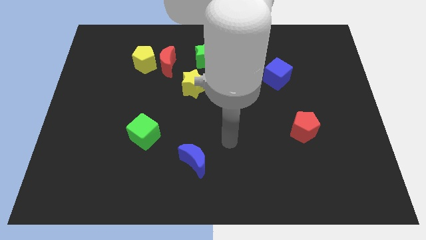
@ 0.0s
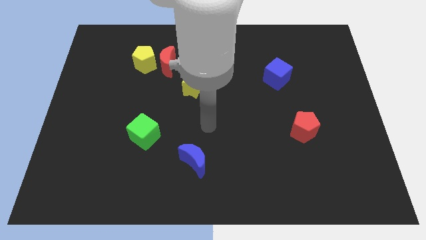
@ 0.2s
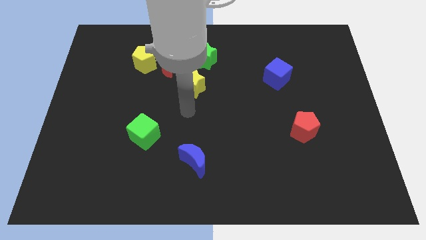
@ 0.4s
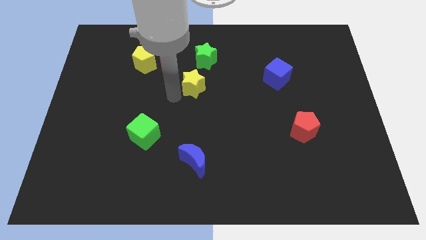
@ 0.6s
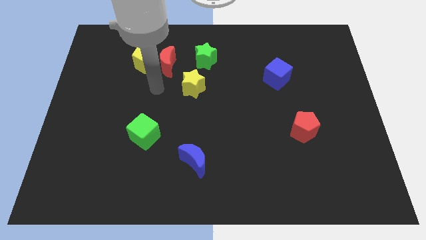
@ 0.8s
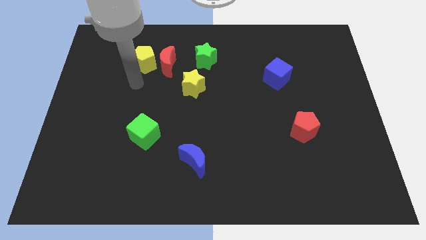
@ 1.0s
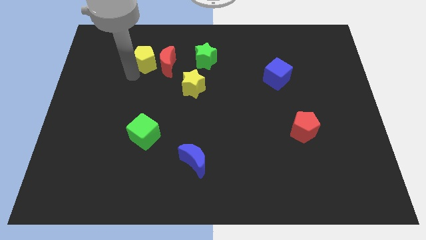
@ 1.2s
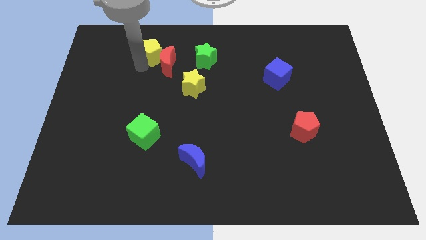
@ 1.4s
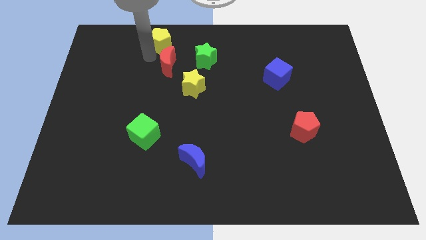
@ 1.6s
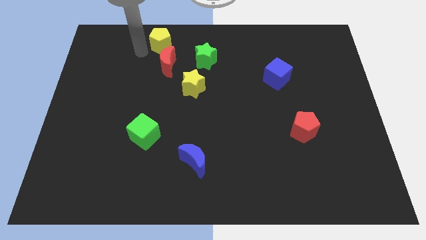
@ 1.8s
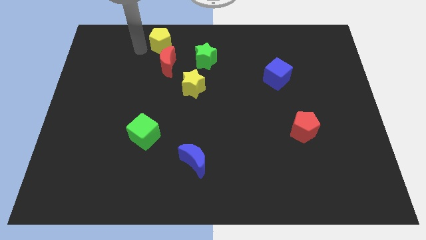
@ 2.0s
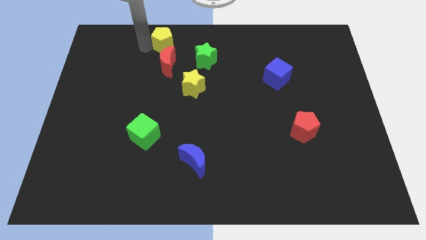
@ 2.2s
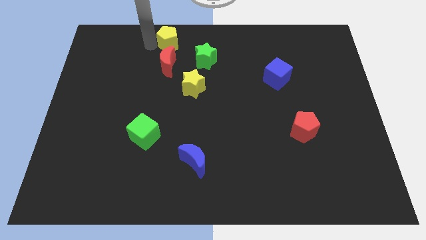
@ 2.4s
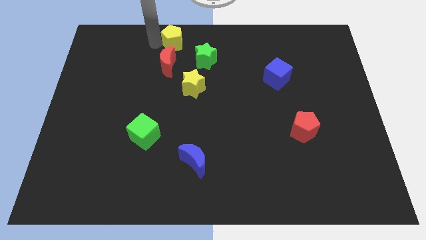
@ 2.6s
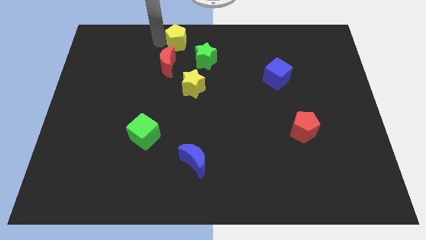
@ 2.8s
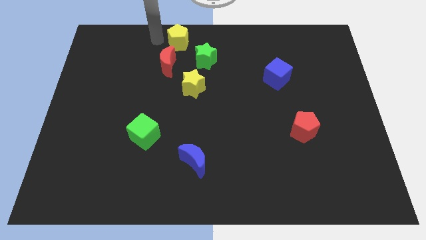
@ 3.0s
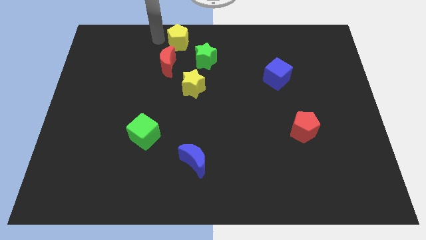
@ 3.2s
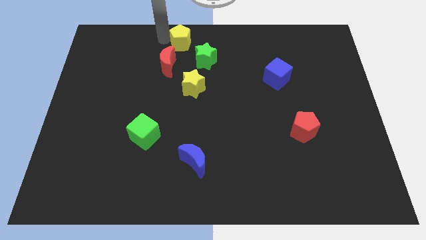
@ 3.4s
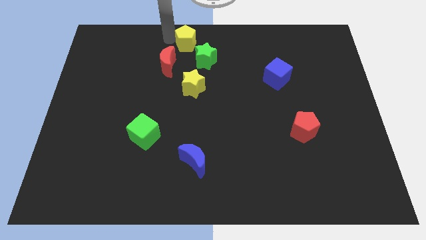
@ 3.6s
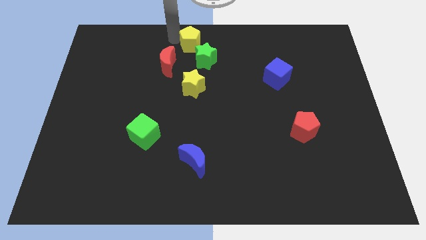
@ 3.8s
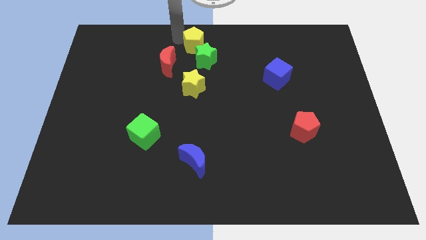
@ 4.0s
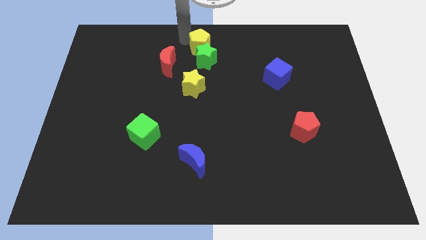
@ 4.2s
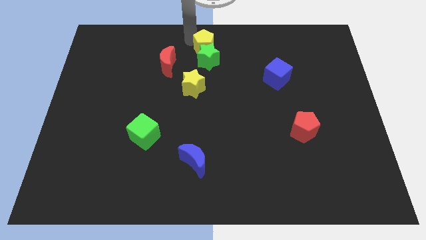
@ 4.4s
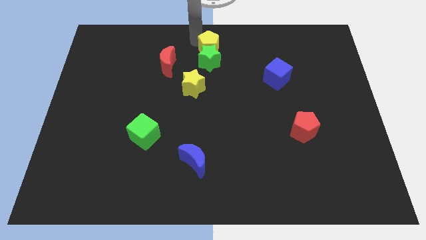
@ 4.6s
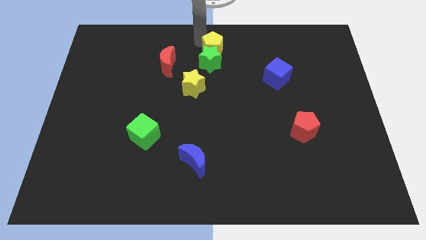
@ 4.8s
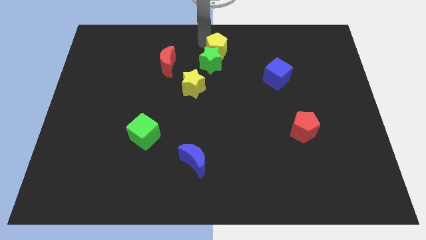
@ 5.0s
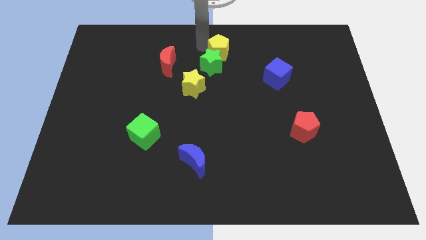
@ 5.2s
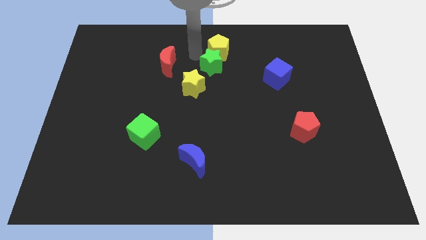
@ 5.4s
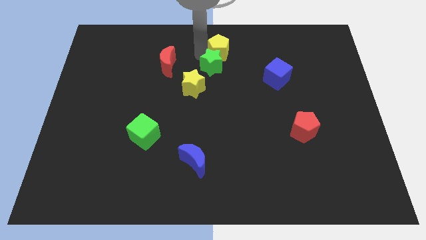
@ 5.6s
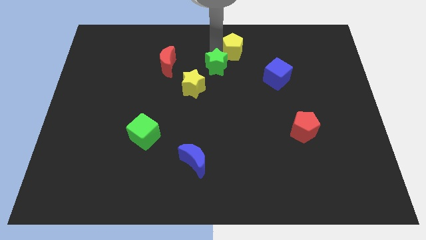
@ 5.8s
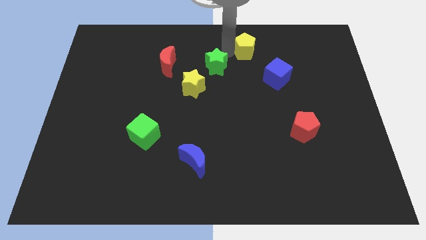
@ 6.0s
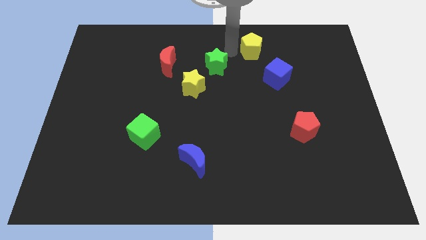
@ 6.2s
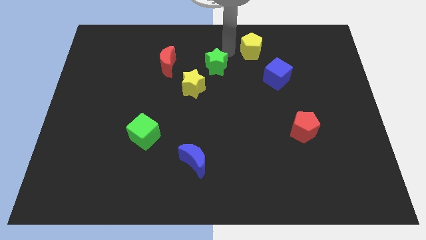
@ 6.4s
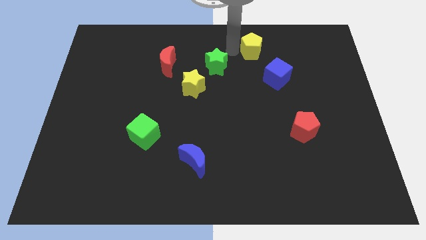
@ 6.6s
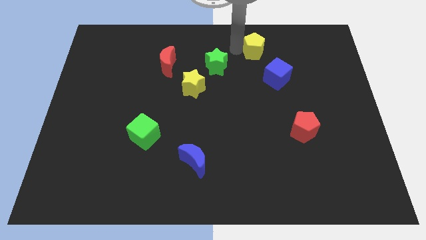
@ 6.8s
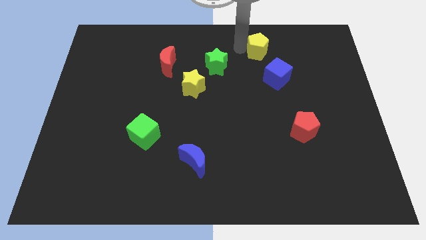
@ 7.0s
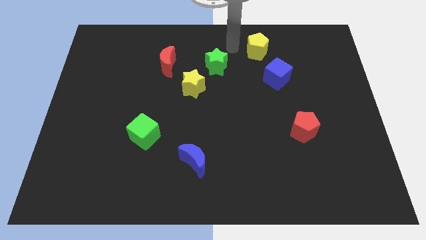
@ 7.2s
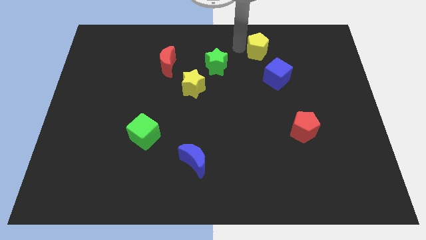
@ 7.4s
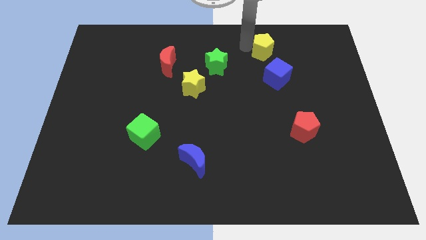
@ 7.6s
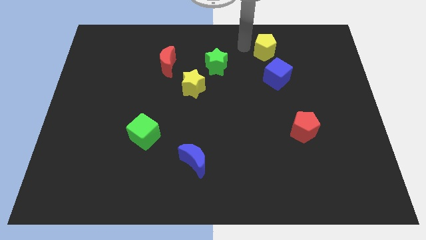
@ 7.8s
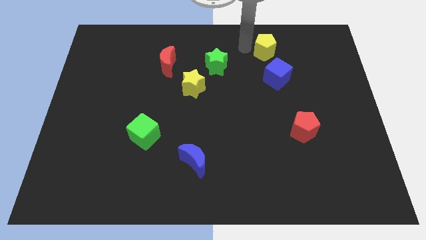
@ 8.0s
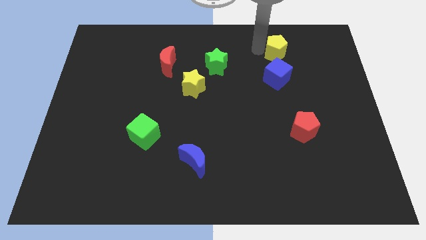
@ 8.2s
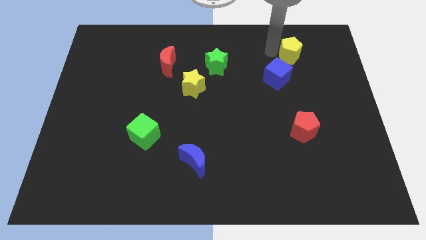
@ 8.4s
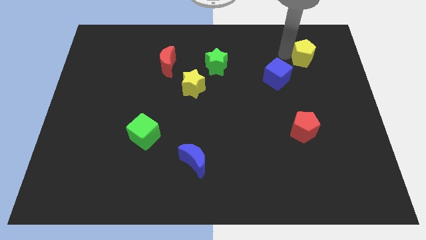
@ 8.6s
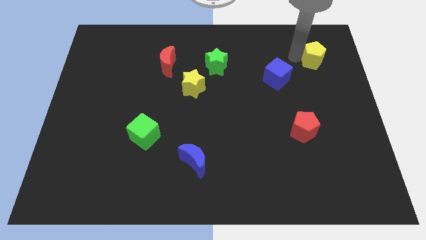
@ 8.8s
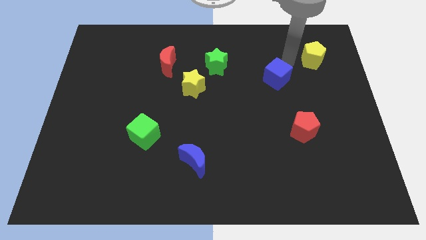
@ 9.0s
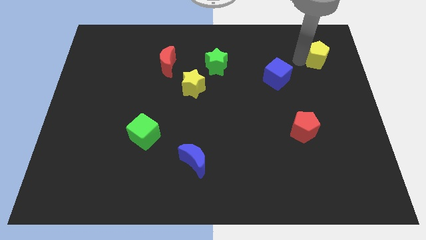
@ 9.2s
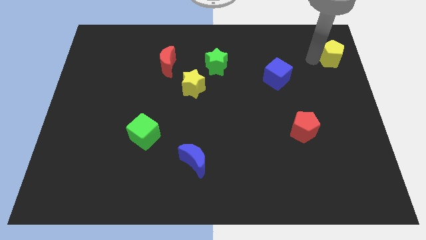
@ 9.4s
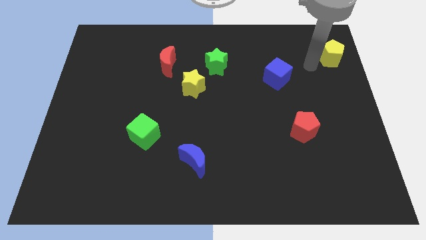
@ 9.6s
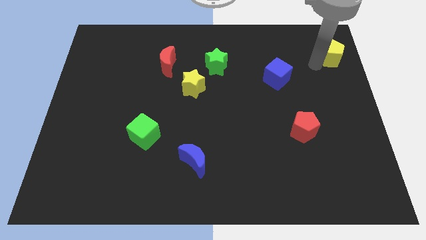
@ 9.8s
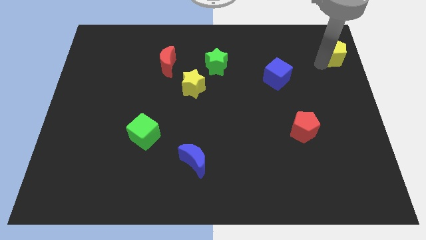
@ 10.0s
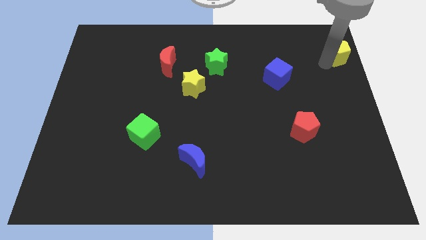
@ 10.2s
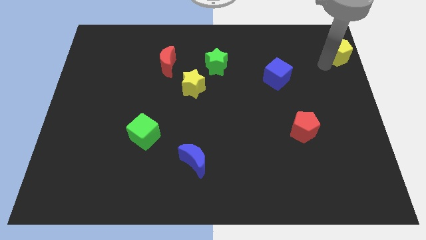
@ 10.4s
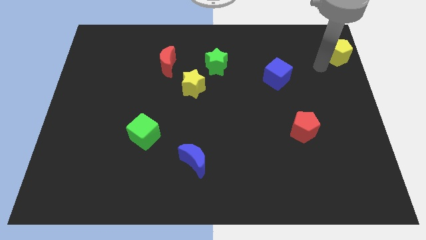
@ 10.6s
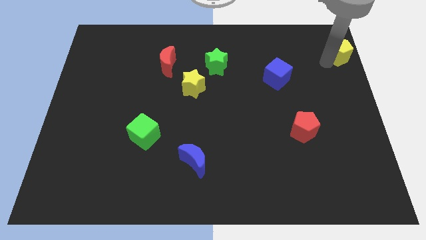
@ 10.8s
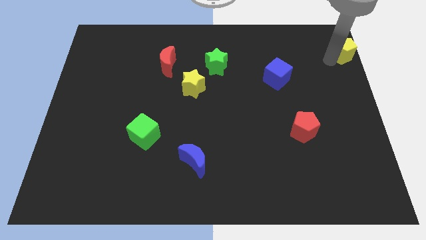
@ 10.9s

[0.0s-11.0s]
slide the yellow pentagon to the top right of the board

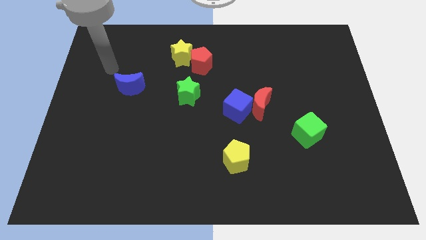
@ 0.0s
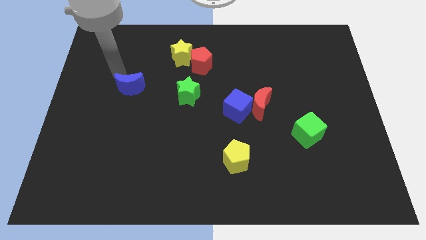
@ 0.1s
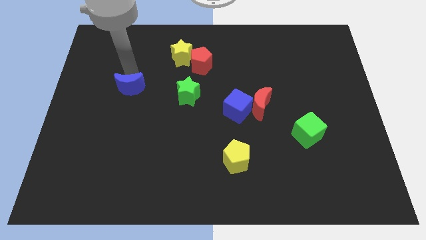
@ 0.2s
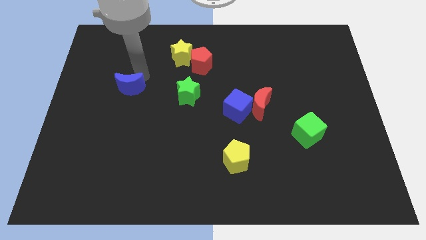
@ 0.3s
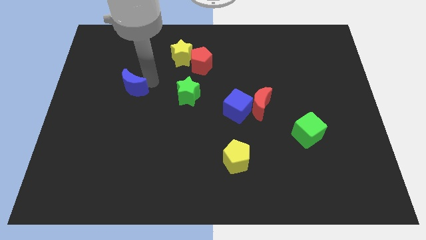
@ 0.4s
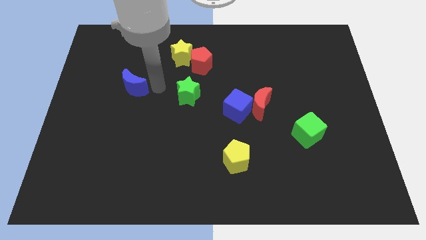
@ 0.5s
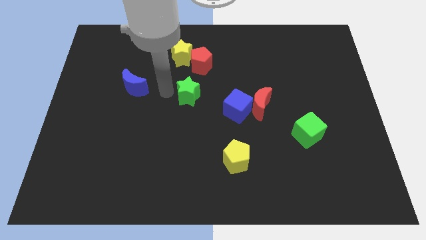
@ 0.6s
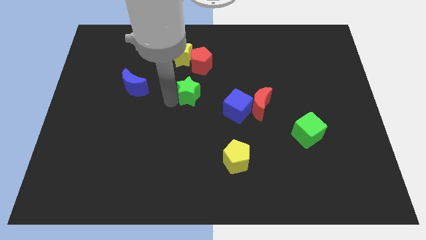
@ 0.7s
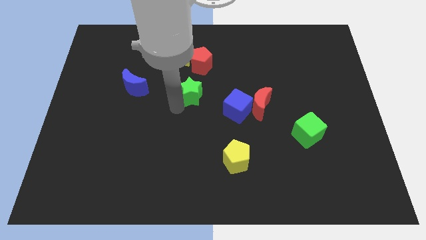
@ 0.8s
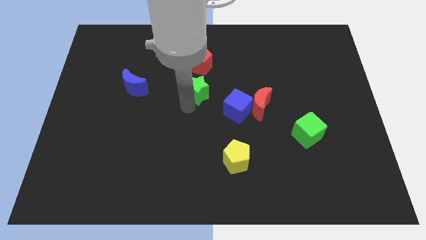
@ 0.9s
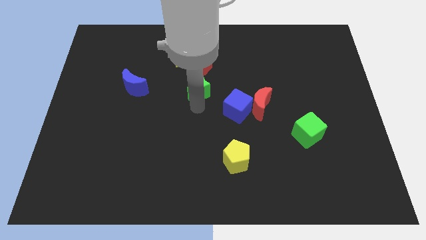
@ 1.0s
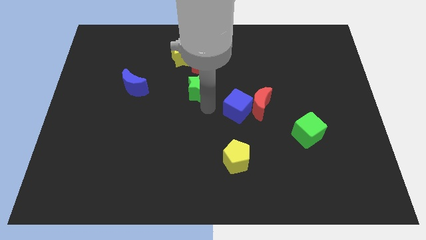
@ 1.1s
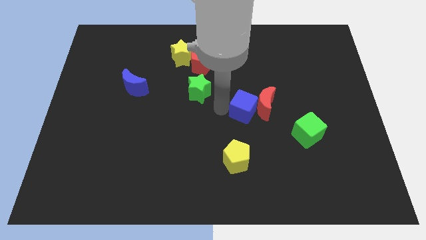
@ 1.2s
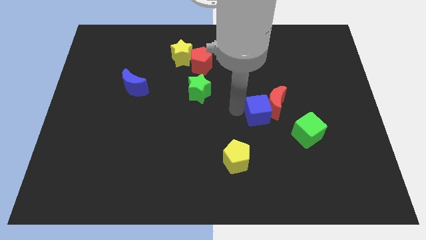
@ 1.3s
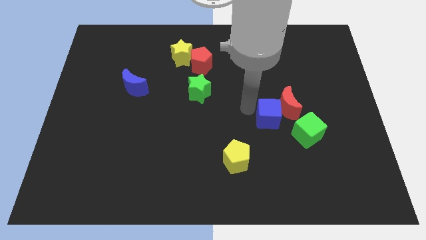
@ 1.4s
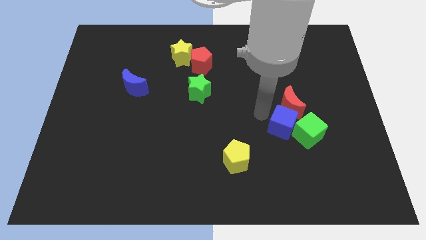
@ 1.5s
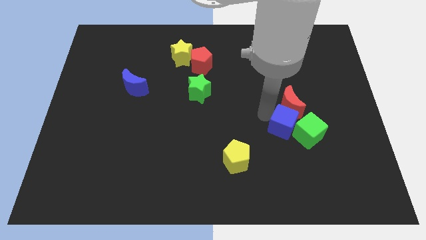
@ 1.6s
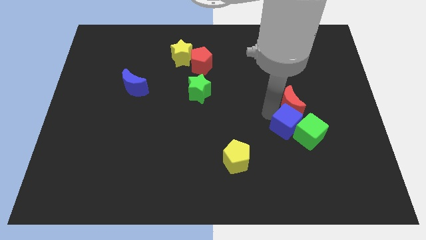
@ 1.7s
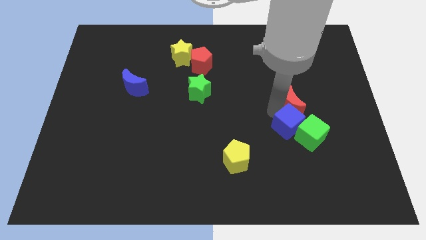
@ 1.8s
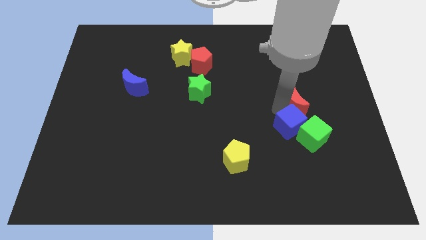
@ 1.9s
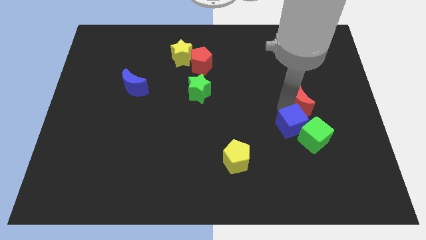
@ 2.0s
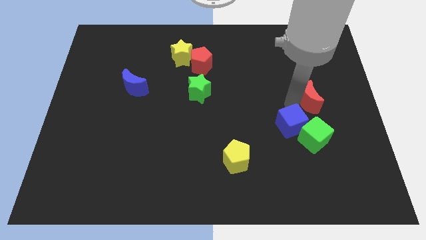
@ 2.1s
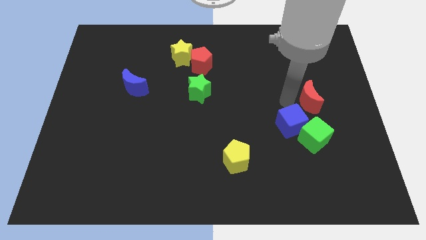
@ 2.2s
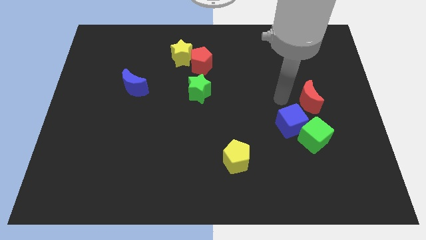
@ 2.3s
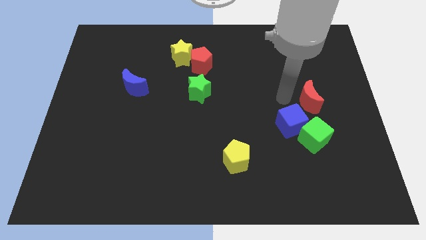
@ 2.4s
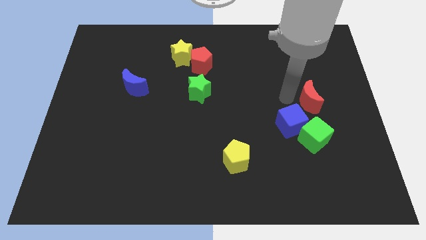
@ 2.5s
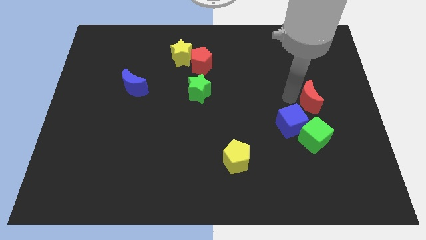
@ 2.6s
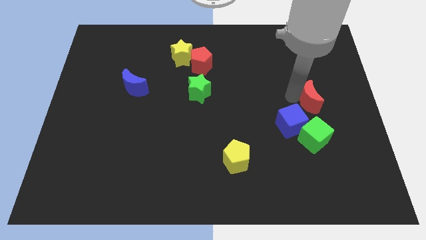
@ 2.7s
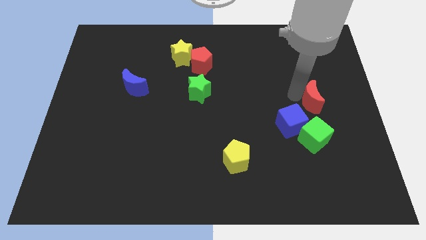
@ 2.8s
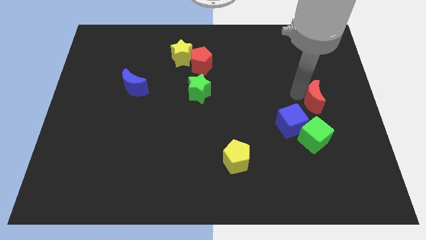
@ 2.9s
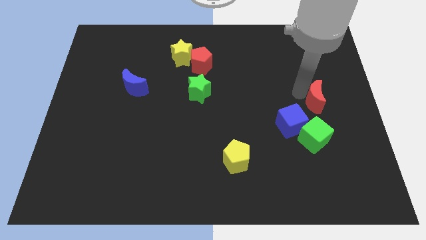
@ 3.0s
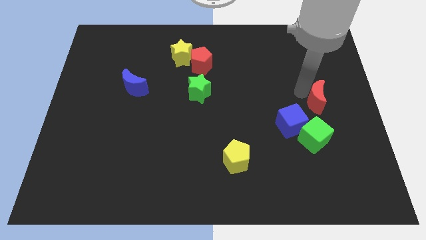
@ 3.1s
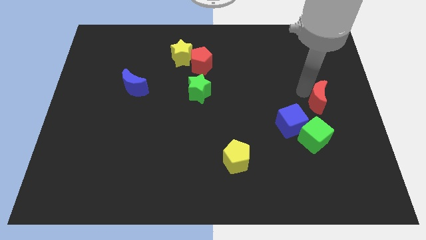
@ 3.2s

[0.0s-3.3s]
put the red moon to the right side
